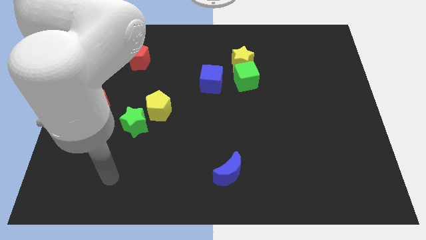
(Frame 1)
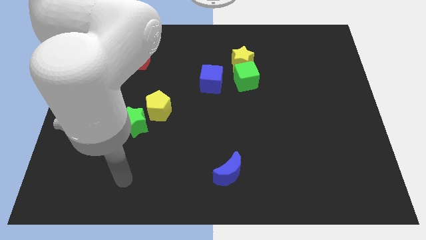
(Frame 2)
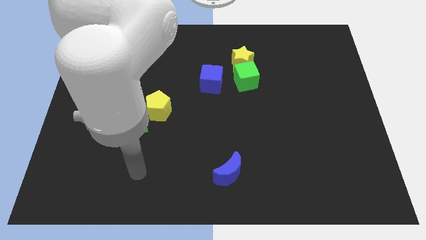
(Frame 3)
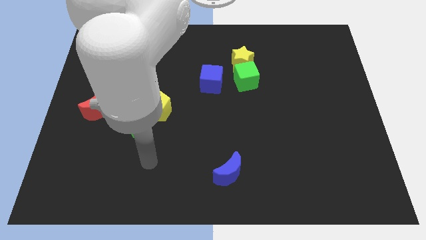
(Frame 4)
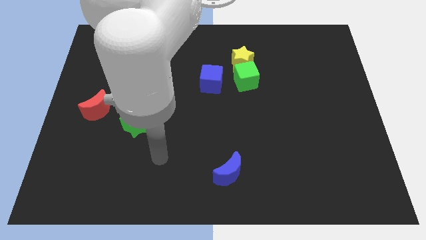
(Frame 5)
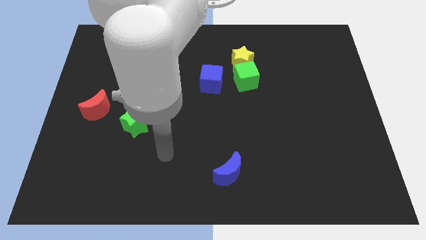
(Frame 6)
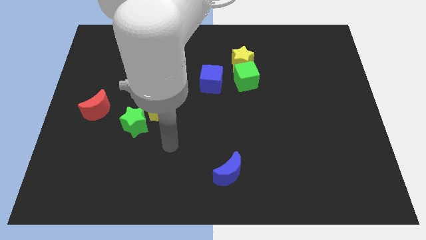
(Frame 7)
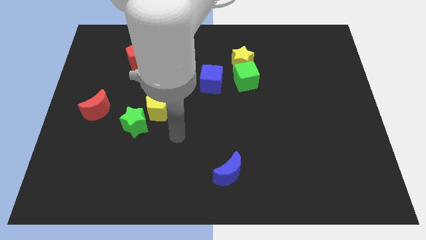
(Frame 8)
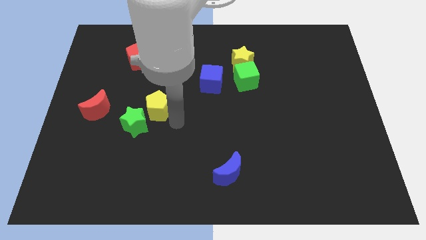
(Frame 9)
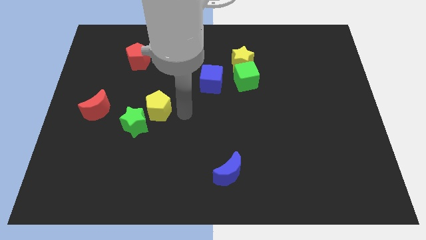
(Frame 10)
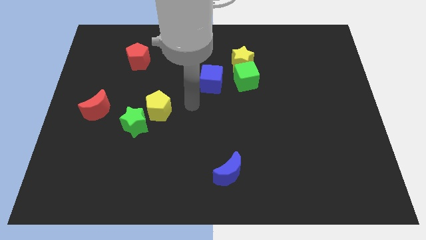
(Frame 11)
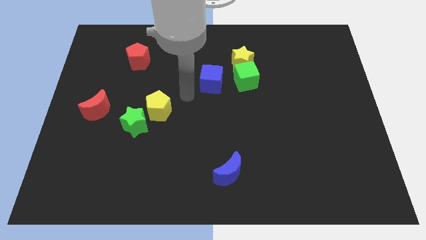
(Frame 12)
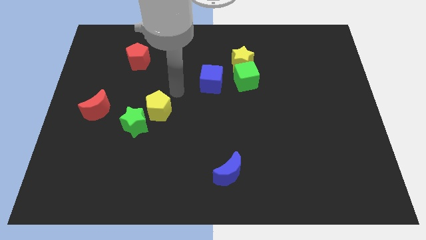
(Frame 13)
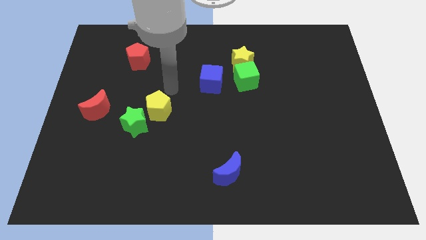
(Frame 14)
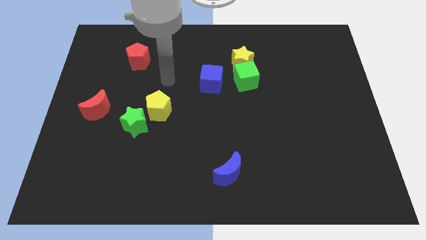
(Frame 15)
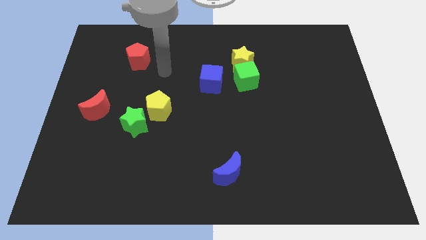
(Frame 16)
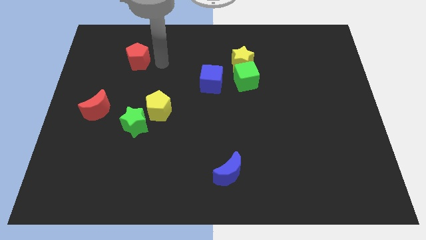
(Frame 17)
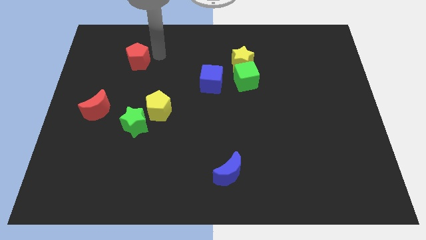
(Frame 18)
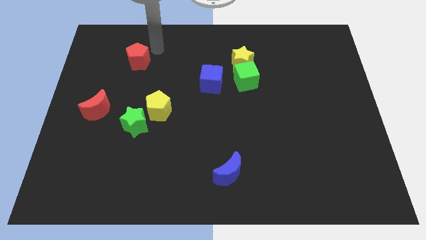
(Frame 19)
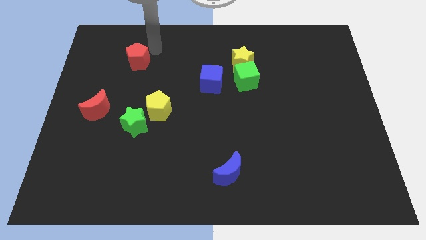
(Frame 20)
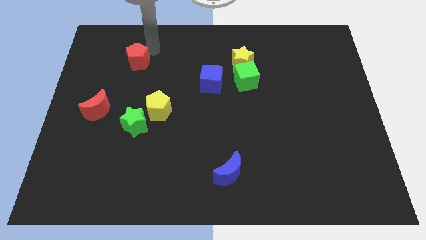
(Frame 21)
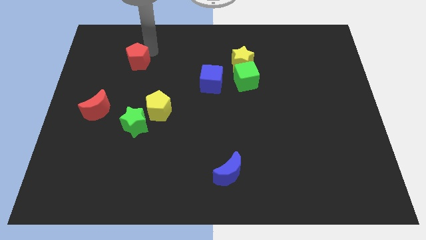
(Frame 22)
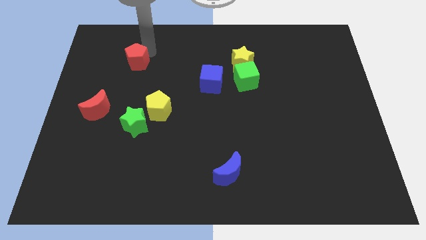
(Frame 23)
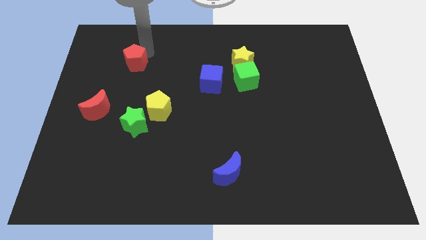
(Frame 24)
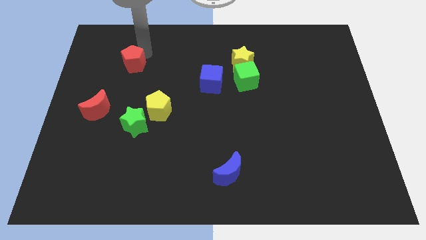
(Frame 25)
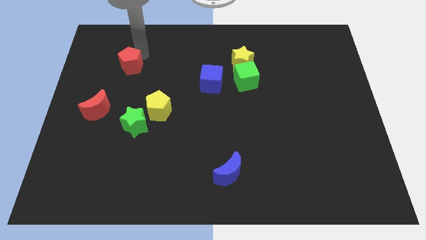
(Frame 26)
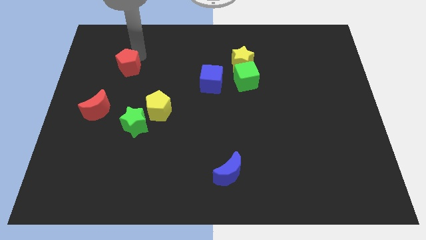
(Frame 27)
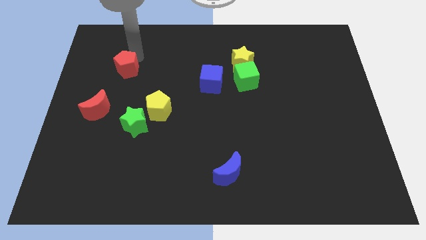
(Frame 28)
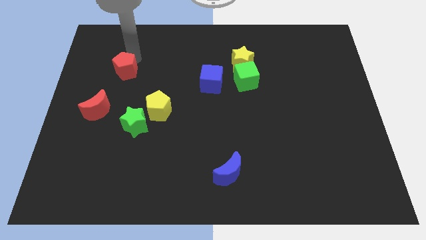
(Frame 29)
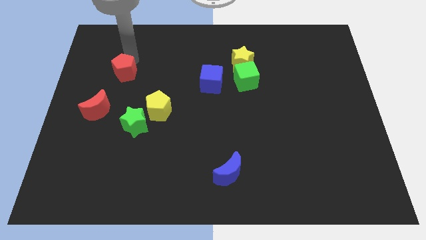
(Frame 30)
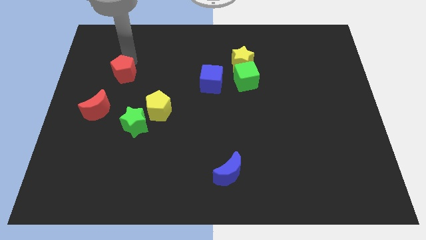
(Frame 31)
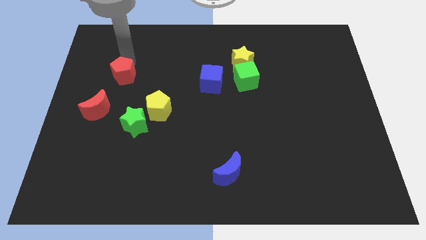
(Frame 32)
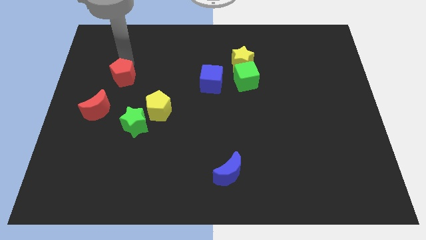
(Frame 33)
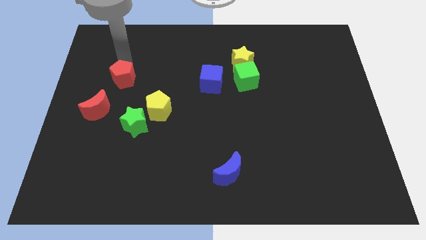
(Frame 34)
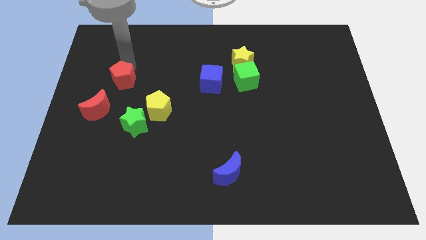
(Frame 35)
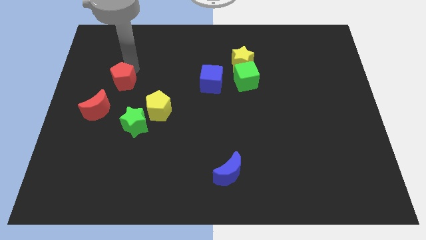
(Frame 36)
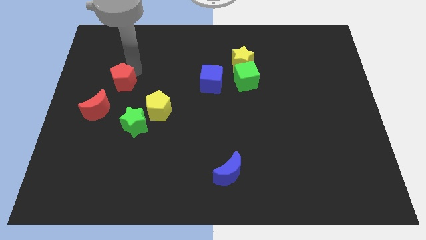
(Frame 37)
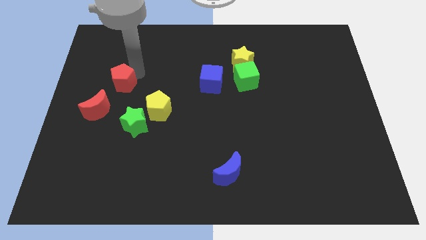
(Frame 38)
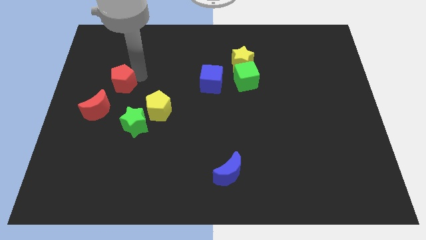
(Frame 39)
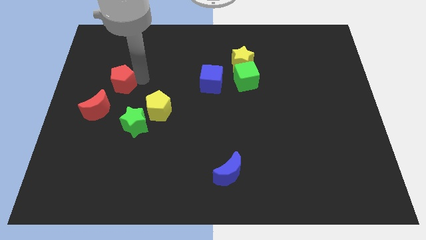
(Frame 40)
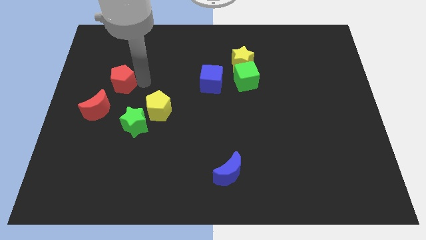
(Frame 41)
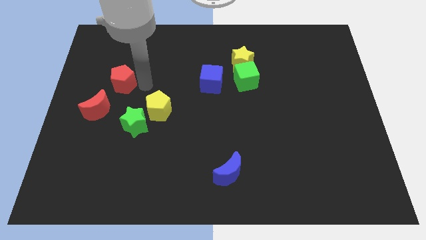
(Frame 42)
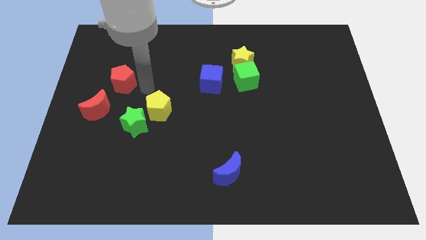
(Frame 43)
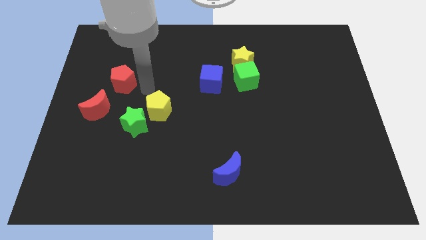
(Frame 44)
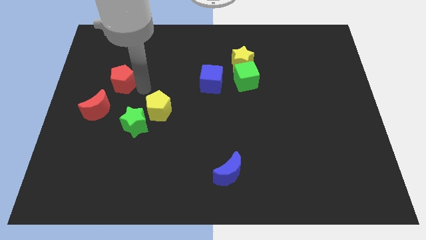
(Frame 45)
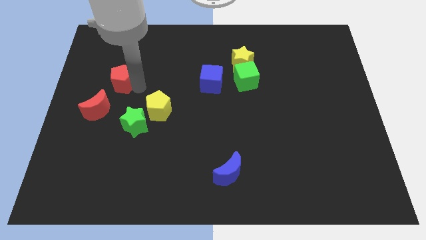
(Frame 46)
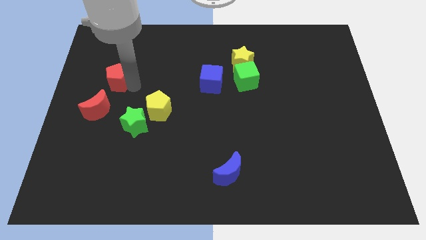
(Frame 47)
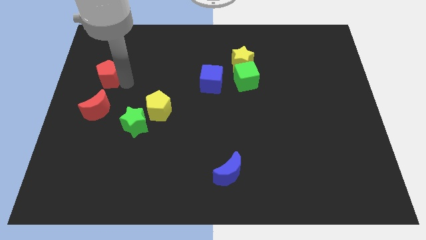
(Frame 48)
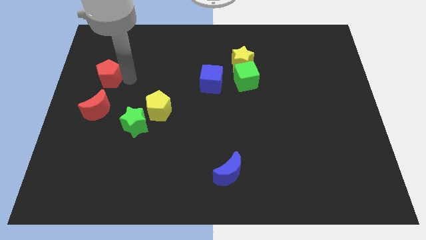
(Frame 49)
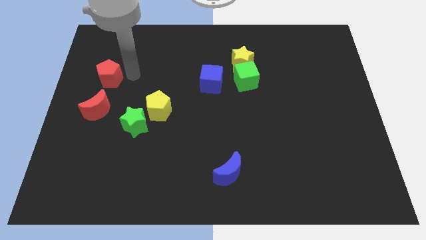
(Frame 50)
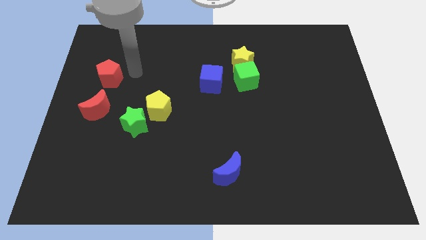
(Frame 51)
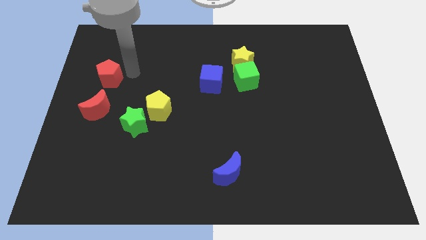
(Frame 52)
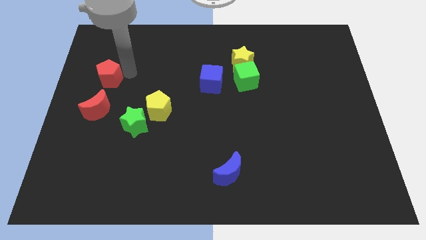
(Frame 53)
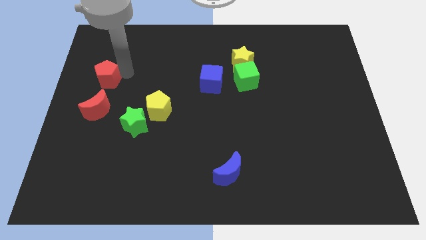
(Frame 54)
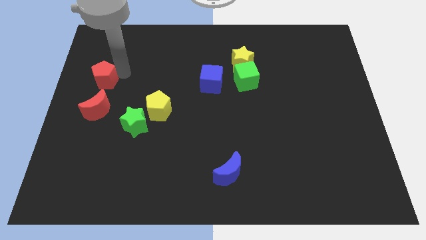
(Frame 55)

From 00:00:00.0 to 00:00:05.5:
put the red pentagon to the center left
